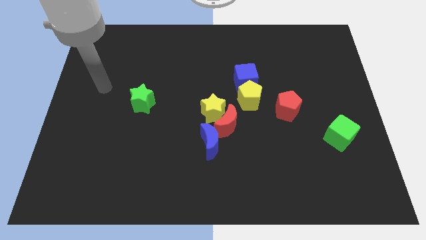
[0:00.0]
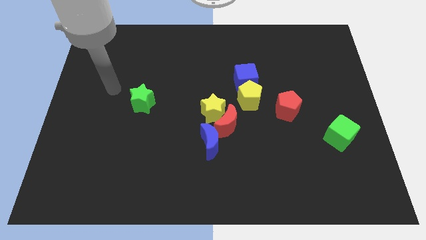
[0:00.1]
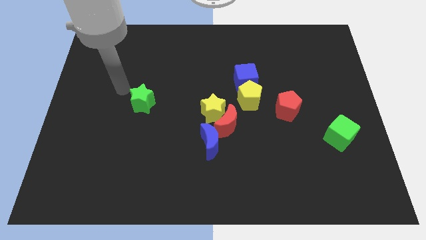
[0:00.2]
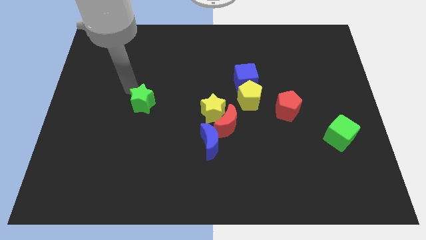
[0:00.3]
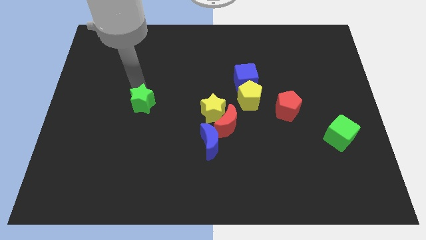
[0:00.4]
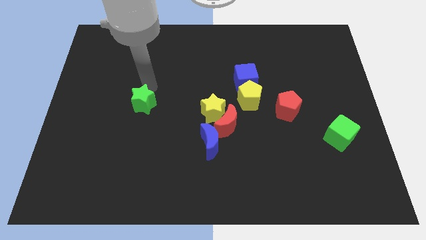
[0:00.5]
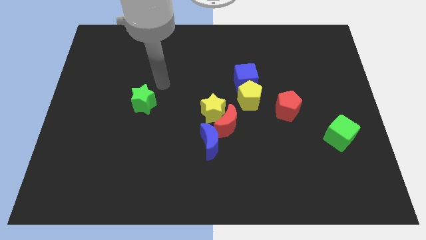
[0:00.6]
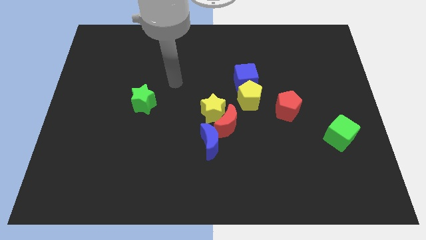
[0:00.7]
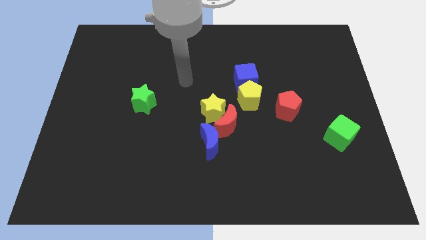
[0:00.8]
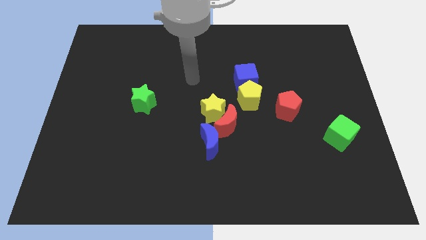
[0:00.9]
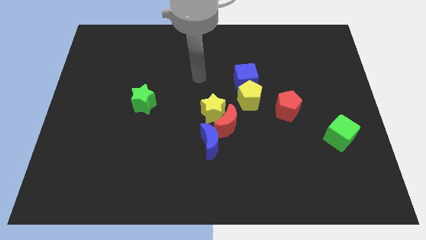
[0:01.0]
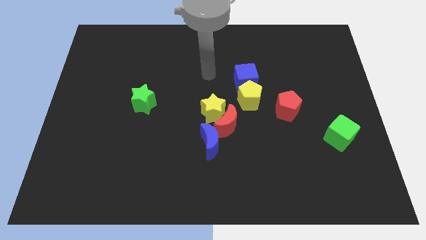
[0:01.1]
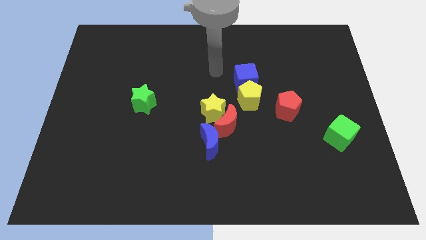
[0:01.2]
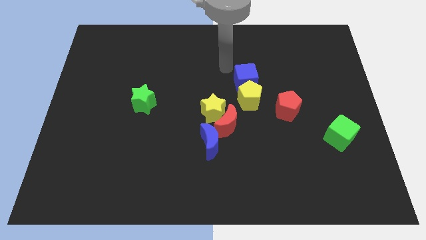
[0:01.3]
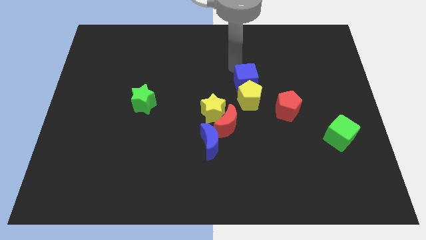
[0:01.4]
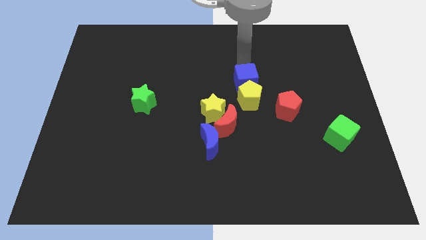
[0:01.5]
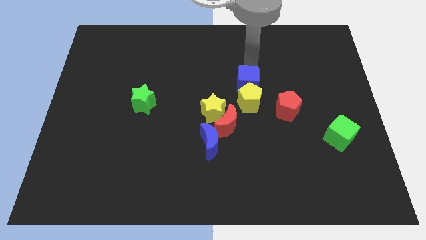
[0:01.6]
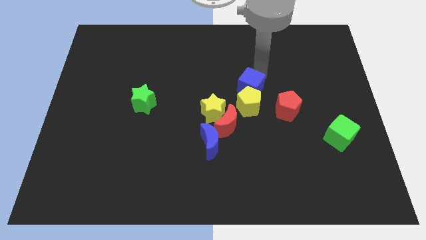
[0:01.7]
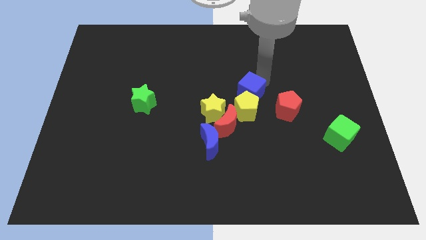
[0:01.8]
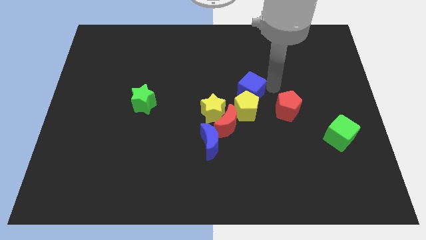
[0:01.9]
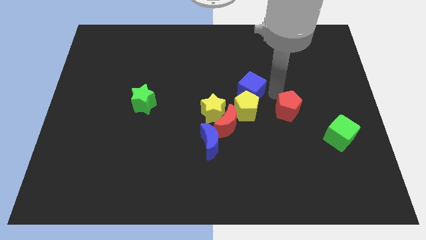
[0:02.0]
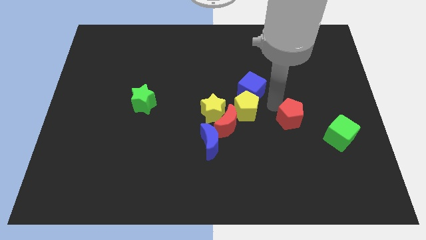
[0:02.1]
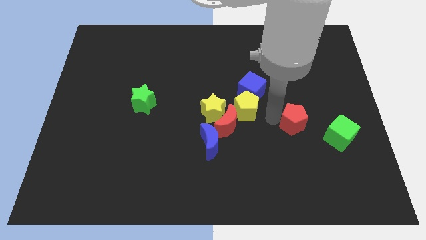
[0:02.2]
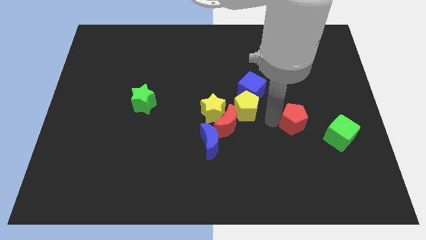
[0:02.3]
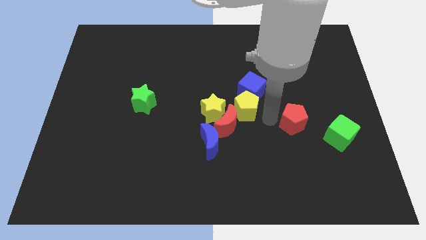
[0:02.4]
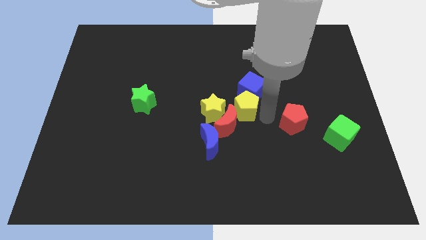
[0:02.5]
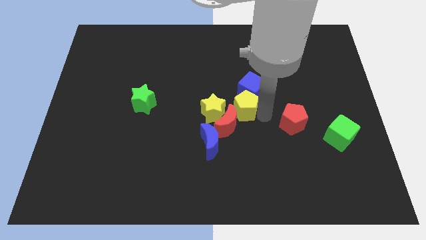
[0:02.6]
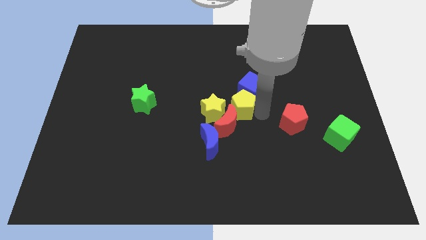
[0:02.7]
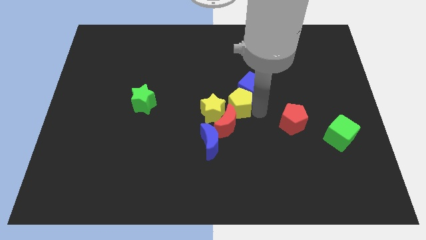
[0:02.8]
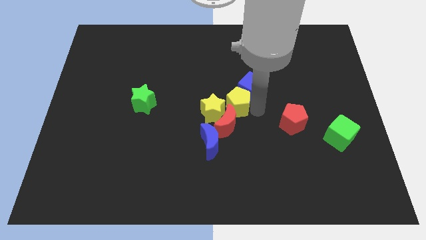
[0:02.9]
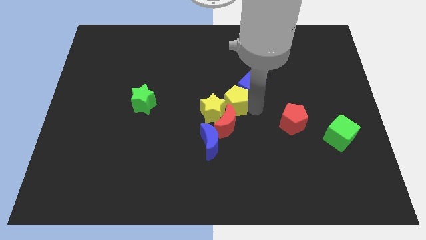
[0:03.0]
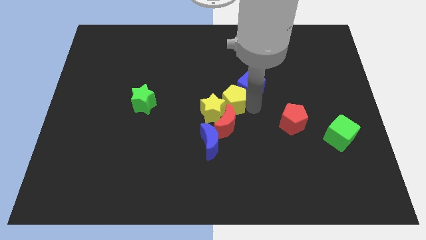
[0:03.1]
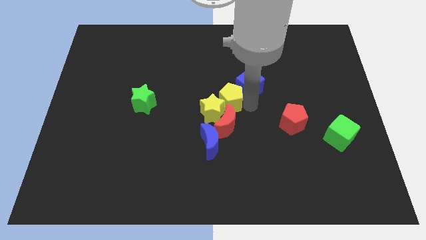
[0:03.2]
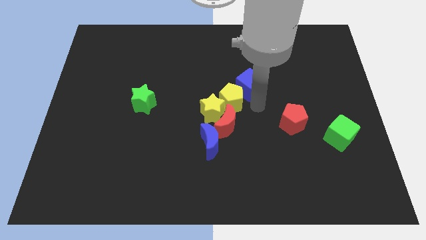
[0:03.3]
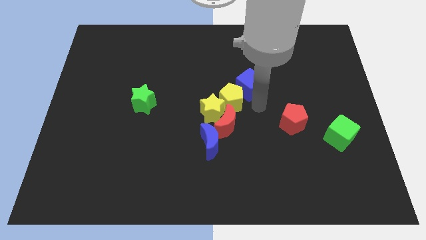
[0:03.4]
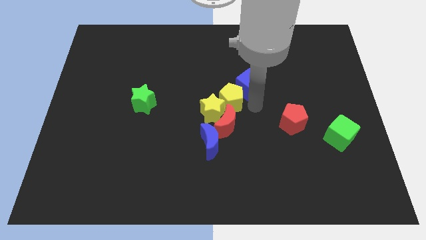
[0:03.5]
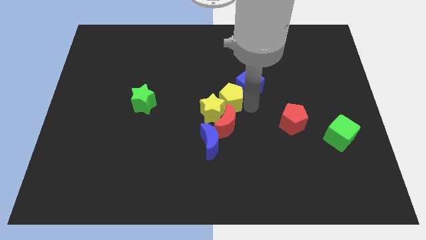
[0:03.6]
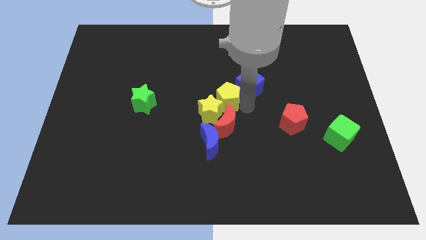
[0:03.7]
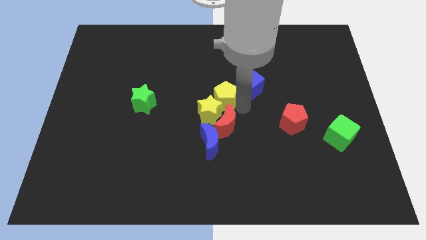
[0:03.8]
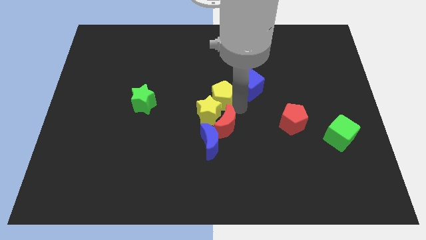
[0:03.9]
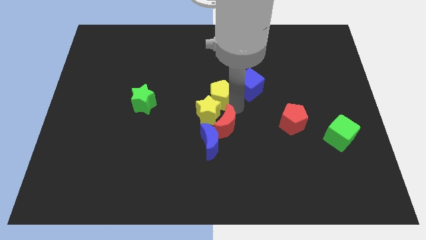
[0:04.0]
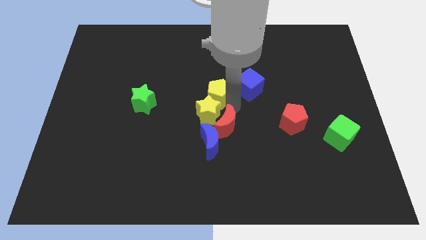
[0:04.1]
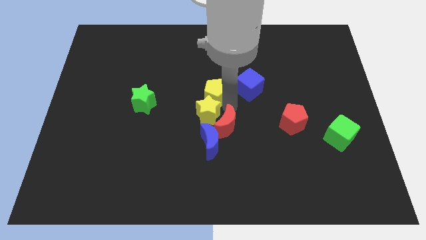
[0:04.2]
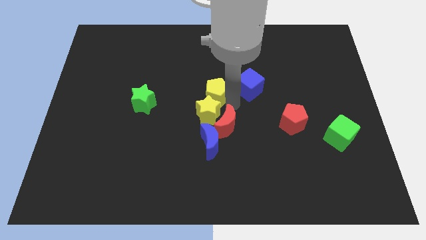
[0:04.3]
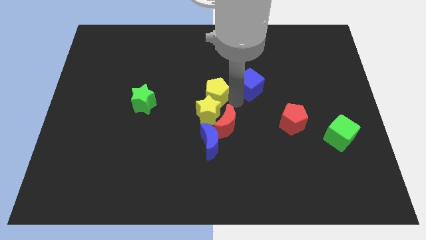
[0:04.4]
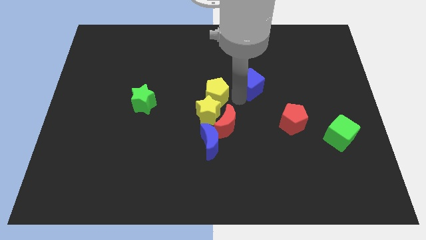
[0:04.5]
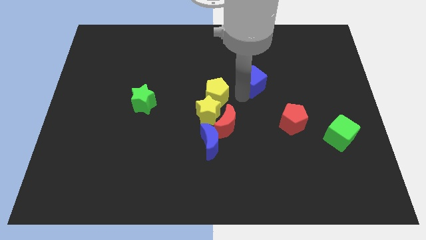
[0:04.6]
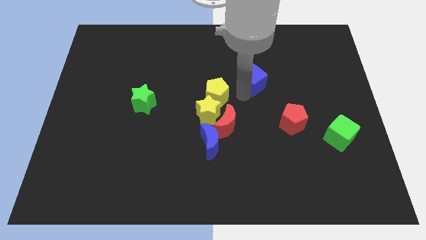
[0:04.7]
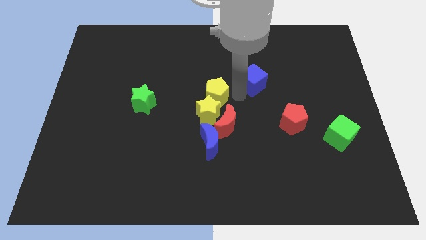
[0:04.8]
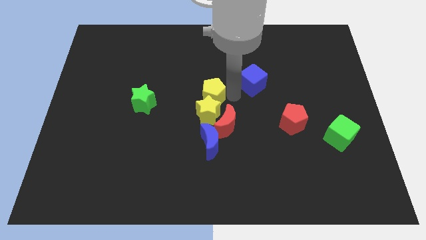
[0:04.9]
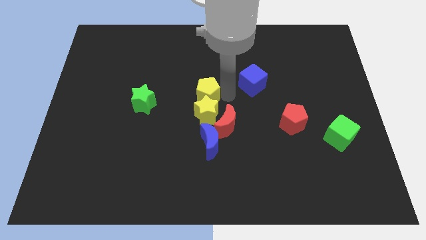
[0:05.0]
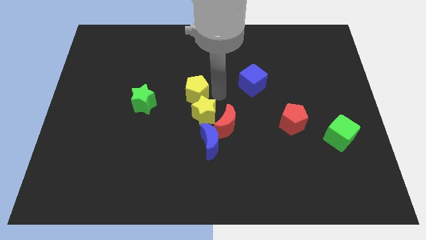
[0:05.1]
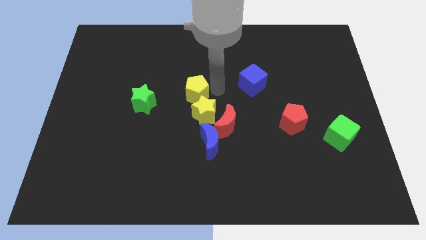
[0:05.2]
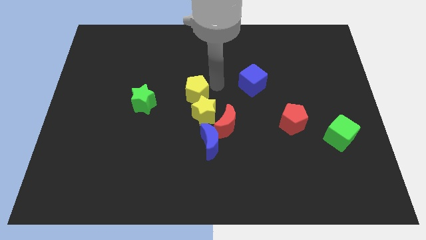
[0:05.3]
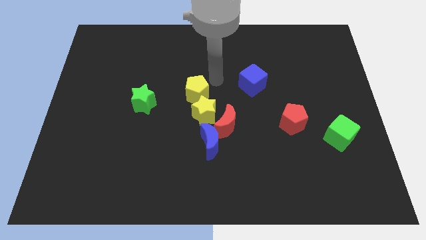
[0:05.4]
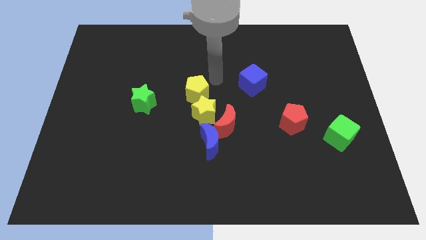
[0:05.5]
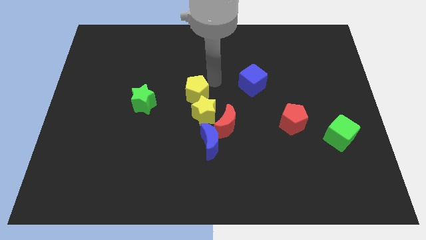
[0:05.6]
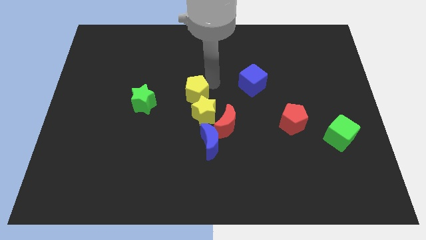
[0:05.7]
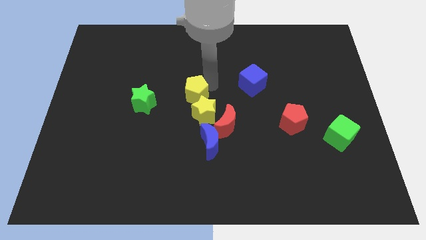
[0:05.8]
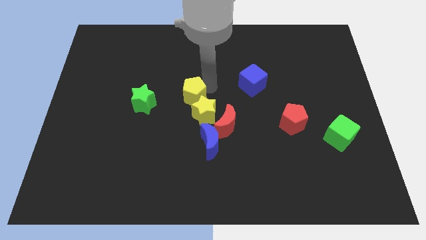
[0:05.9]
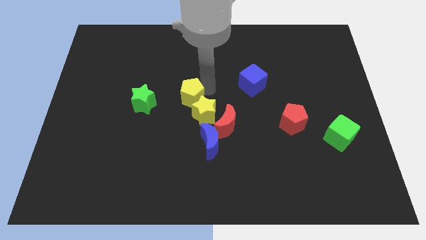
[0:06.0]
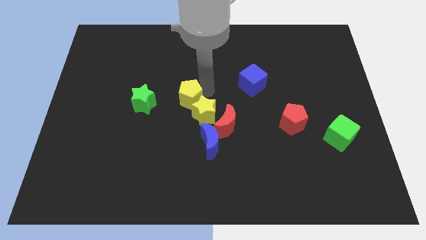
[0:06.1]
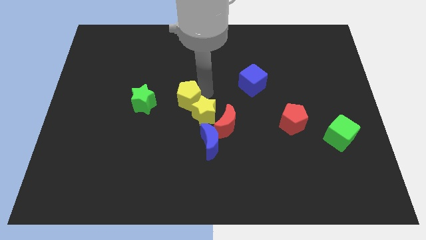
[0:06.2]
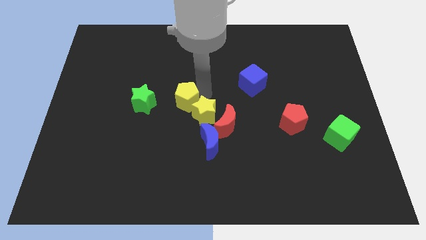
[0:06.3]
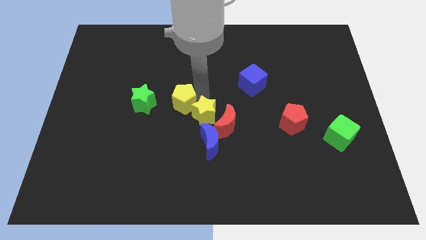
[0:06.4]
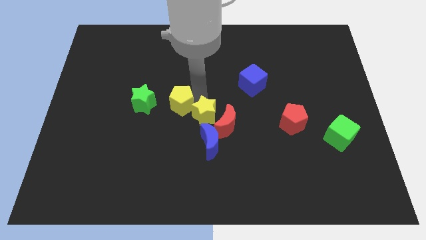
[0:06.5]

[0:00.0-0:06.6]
push the yellow pentagon a little bit down and then left

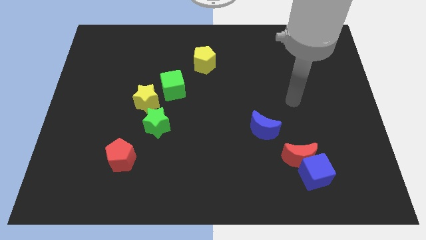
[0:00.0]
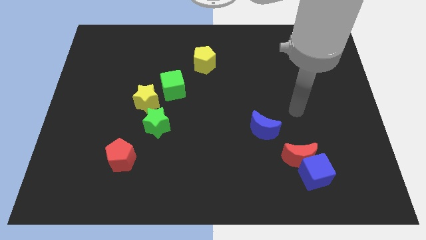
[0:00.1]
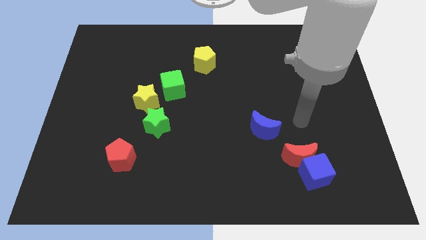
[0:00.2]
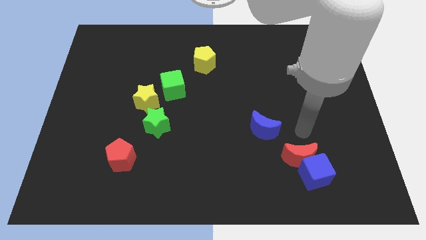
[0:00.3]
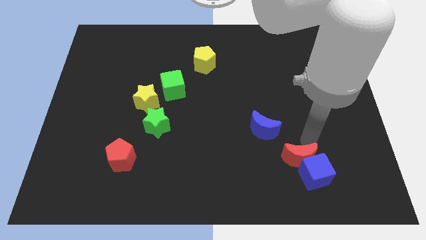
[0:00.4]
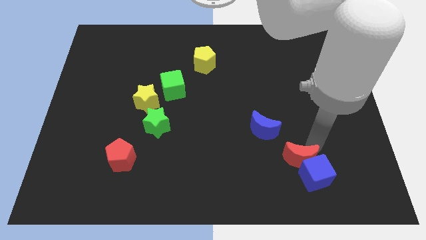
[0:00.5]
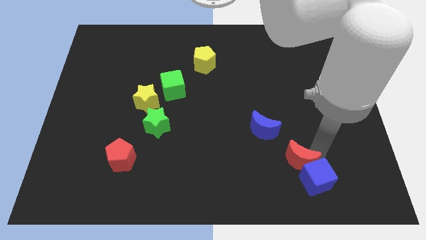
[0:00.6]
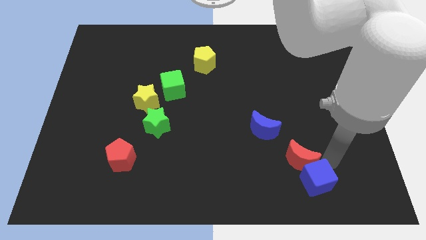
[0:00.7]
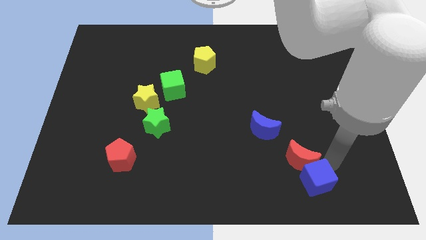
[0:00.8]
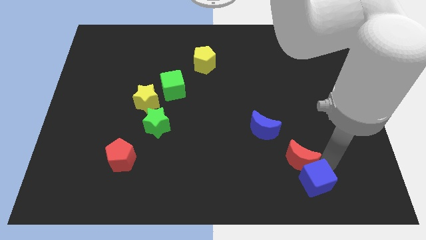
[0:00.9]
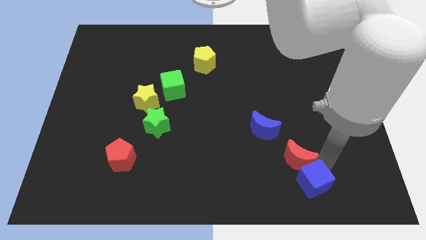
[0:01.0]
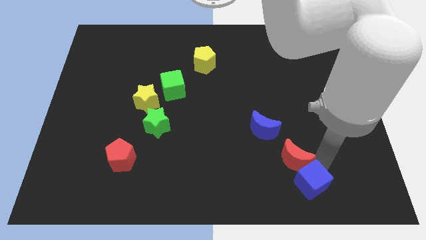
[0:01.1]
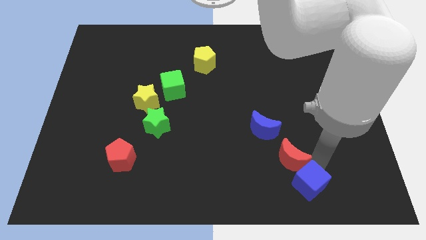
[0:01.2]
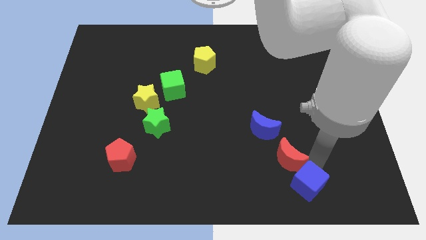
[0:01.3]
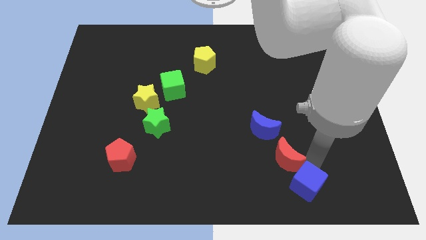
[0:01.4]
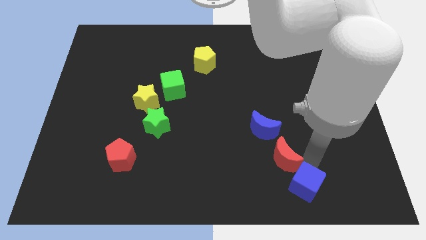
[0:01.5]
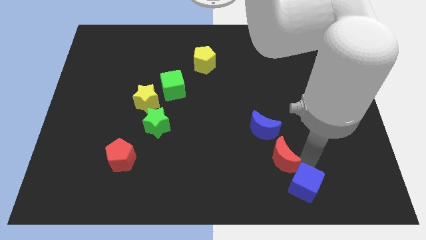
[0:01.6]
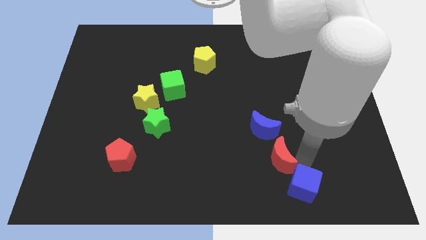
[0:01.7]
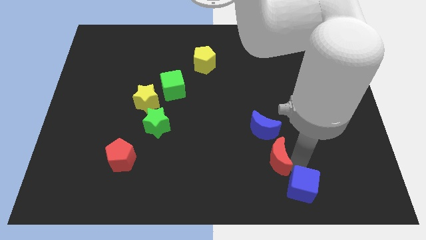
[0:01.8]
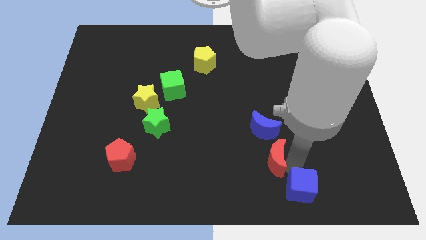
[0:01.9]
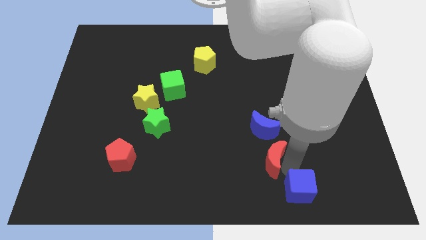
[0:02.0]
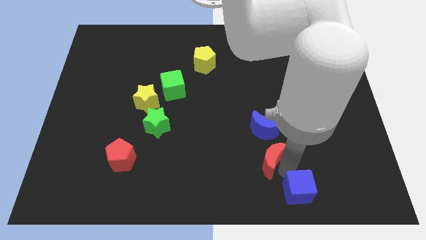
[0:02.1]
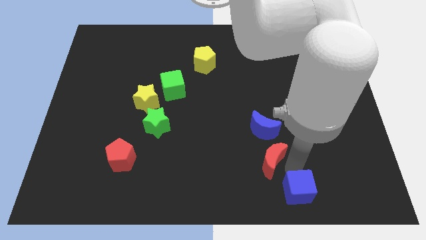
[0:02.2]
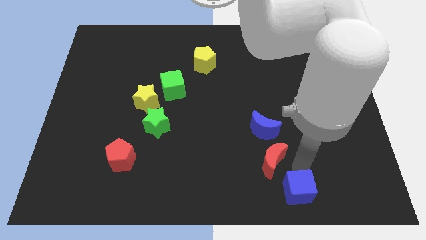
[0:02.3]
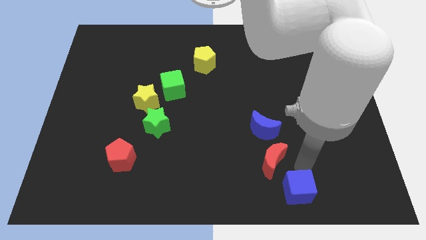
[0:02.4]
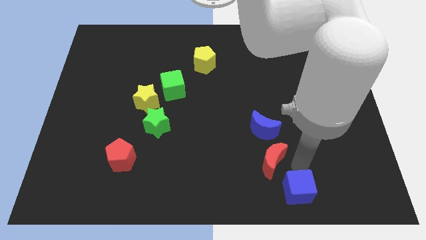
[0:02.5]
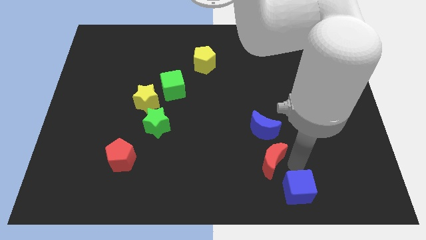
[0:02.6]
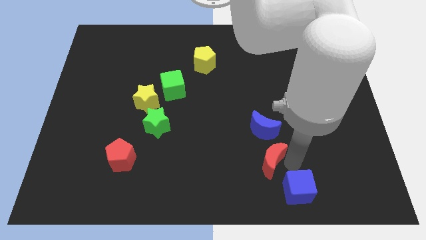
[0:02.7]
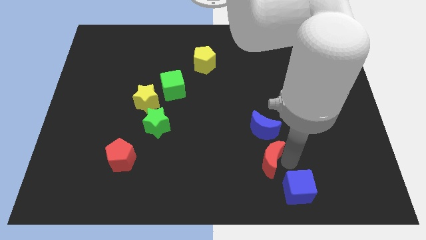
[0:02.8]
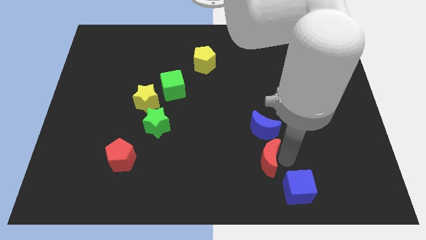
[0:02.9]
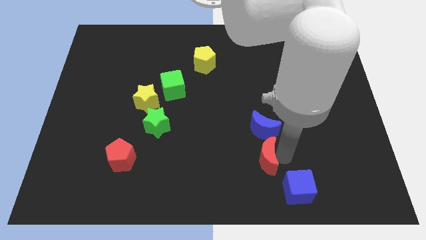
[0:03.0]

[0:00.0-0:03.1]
move the red moon somewhat left
